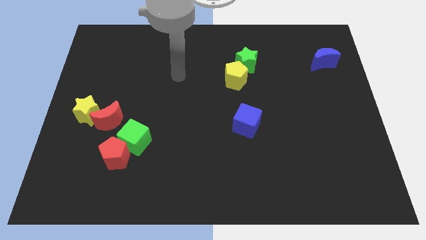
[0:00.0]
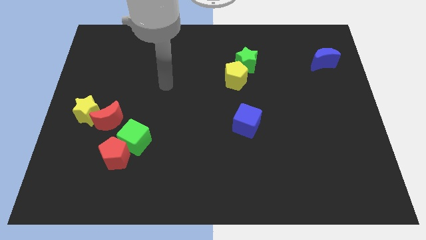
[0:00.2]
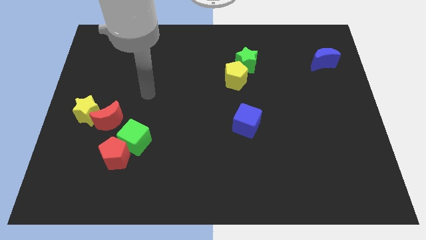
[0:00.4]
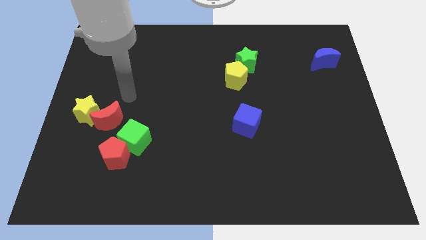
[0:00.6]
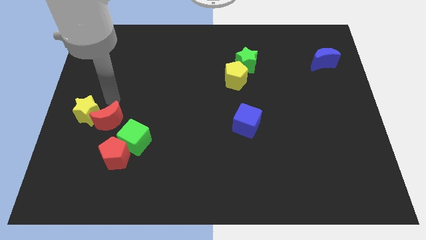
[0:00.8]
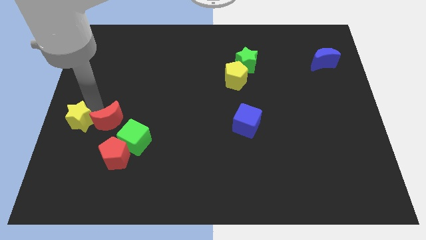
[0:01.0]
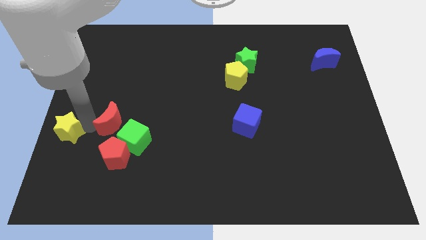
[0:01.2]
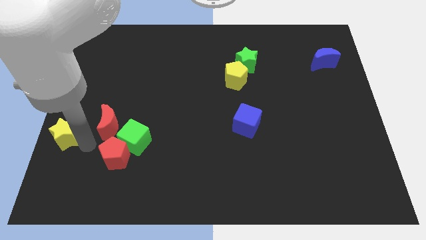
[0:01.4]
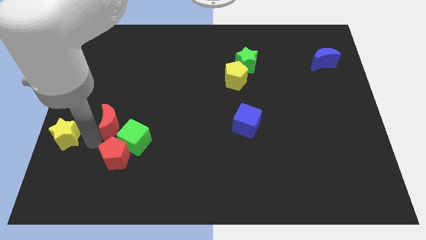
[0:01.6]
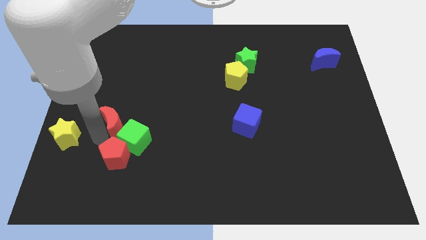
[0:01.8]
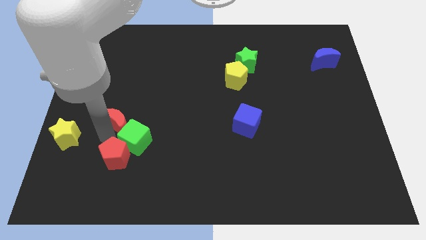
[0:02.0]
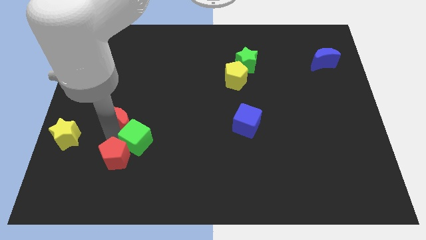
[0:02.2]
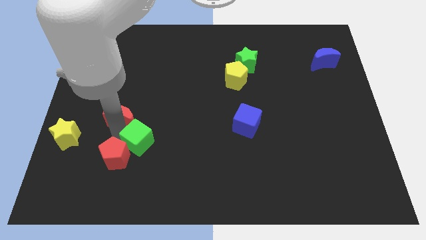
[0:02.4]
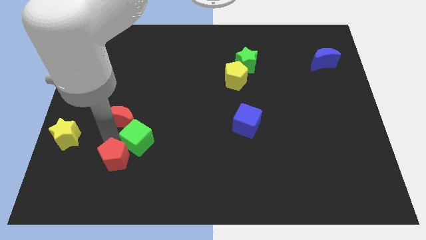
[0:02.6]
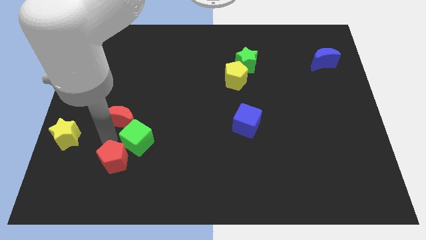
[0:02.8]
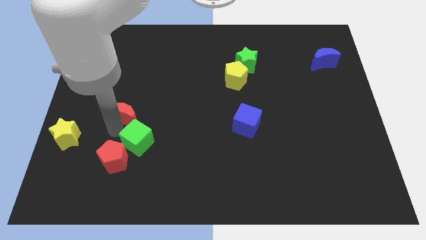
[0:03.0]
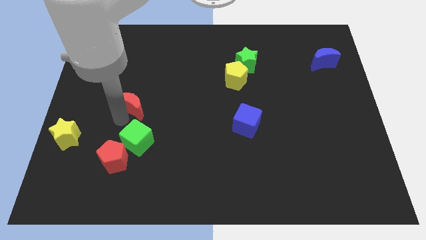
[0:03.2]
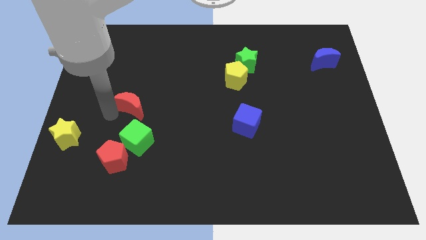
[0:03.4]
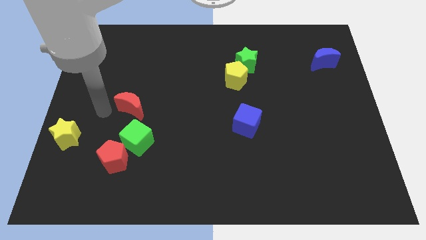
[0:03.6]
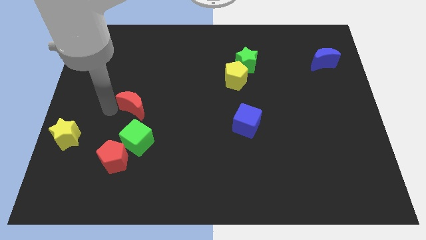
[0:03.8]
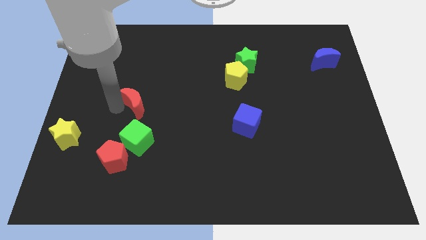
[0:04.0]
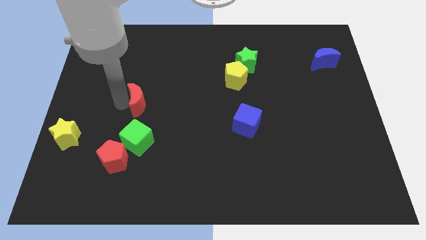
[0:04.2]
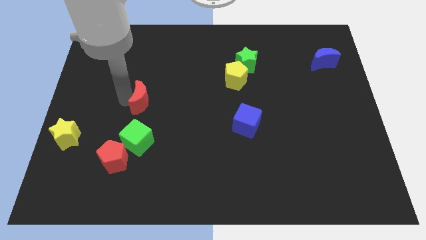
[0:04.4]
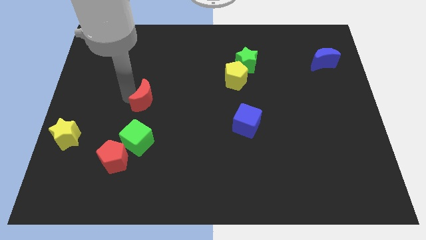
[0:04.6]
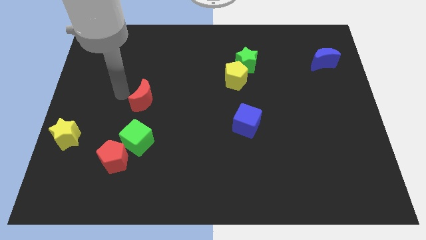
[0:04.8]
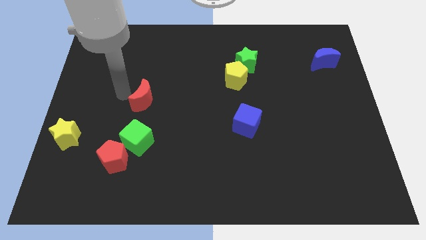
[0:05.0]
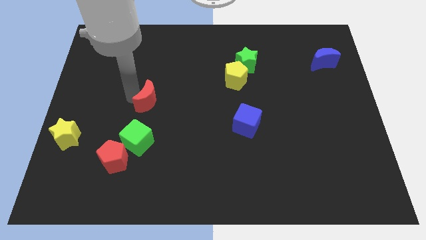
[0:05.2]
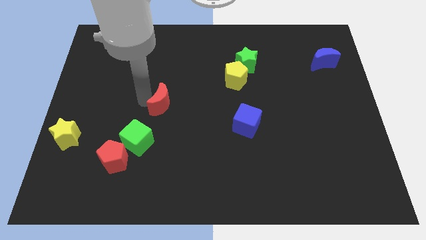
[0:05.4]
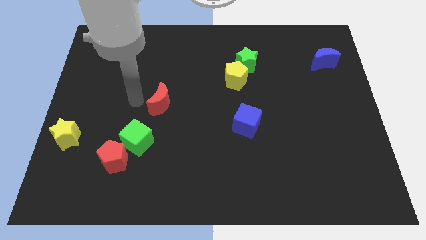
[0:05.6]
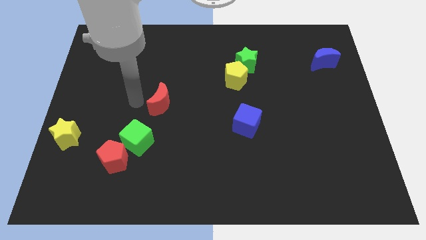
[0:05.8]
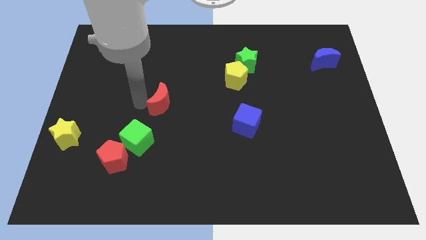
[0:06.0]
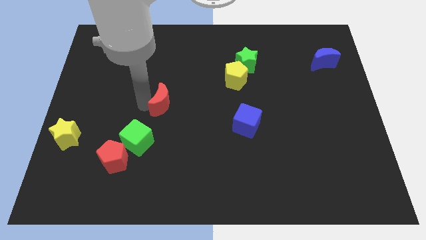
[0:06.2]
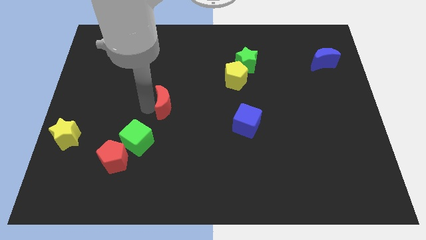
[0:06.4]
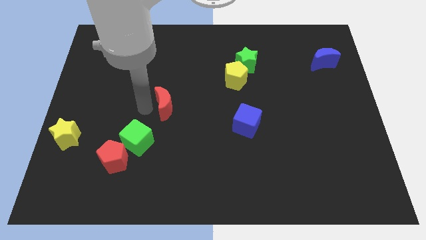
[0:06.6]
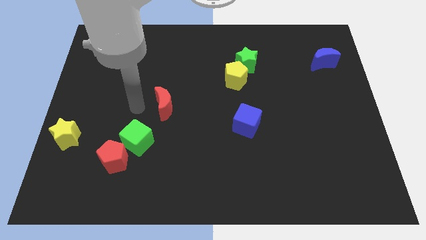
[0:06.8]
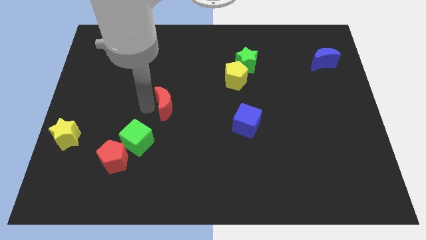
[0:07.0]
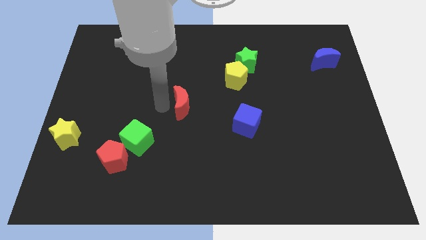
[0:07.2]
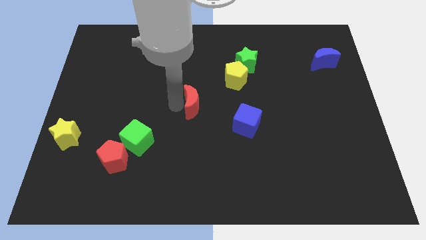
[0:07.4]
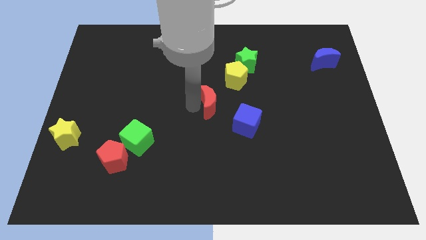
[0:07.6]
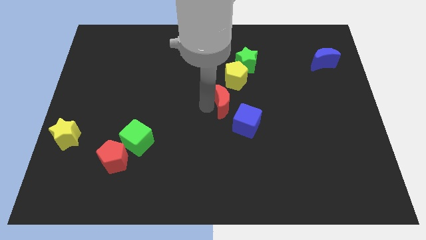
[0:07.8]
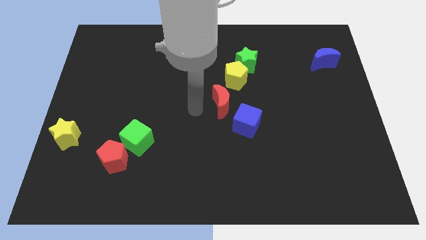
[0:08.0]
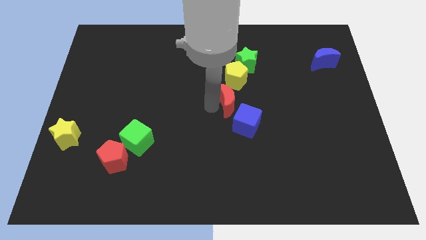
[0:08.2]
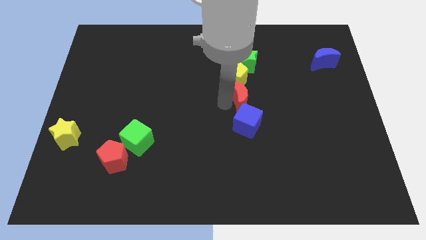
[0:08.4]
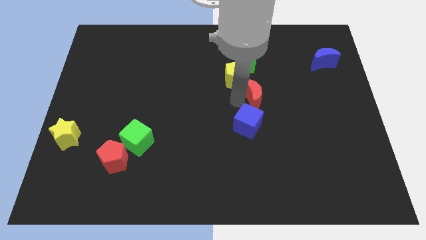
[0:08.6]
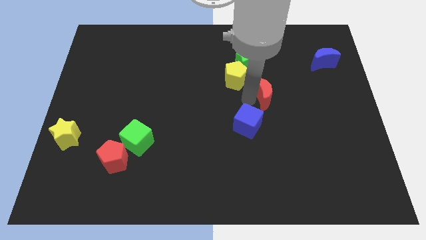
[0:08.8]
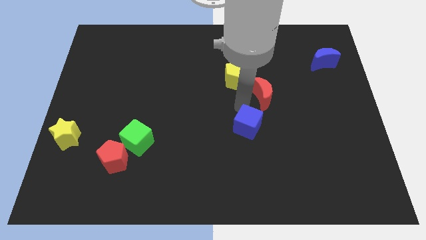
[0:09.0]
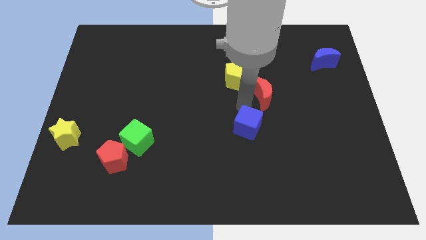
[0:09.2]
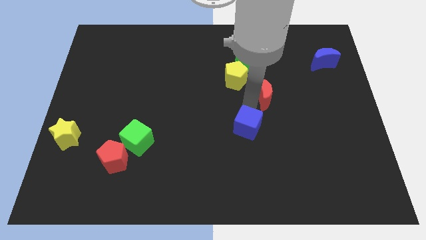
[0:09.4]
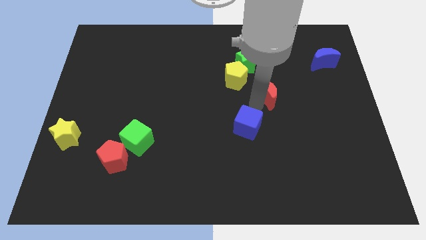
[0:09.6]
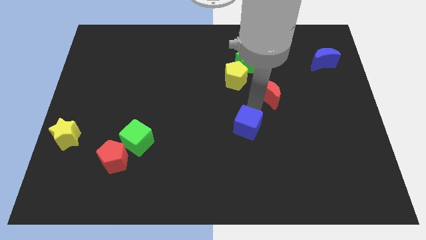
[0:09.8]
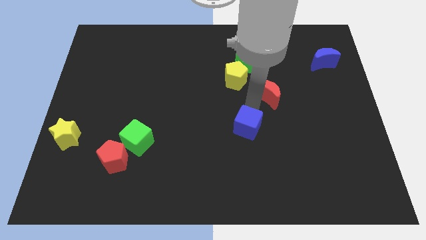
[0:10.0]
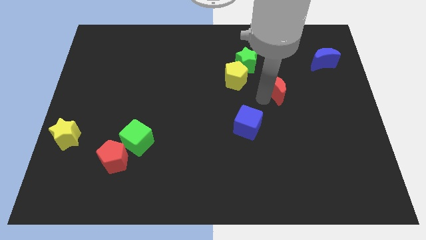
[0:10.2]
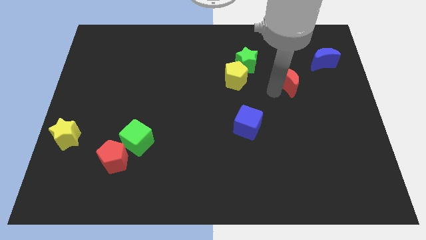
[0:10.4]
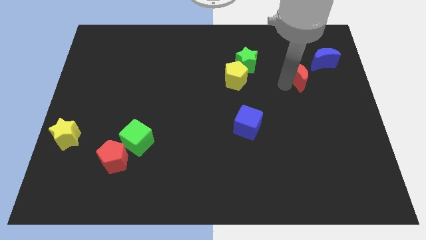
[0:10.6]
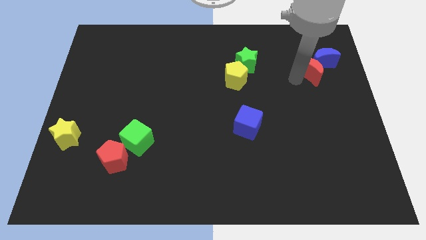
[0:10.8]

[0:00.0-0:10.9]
put the red moon to the blue moon

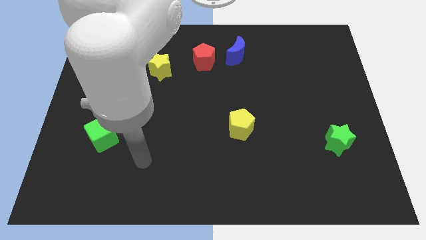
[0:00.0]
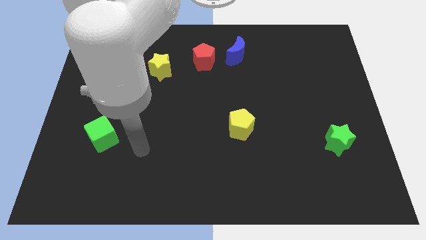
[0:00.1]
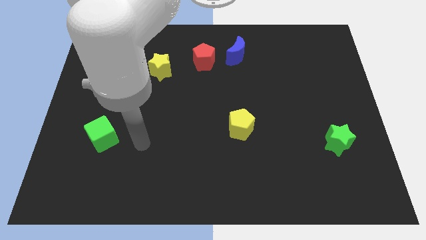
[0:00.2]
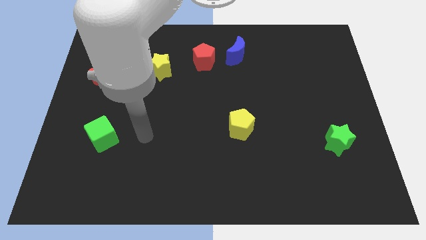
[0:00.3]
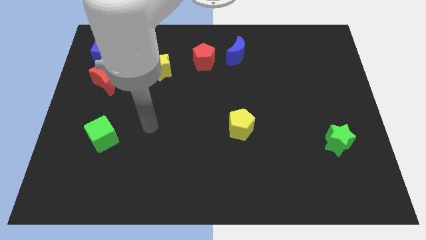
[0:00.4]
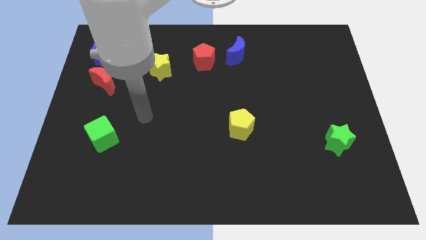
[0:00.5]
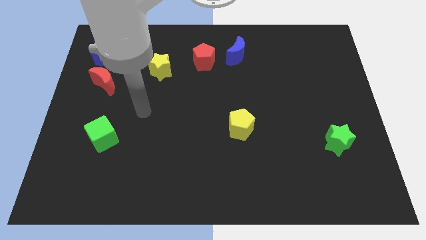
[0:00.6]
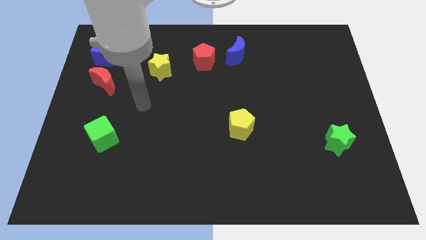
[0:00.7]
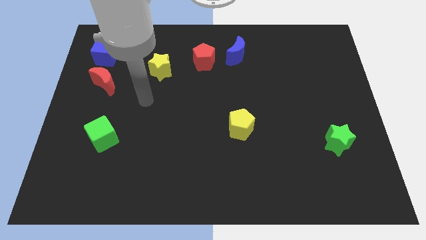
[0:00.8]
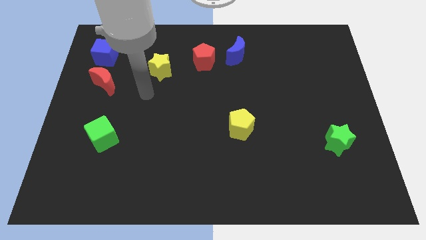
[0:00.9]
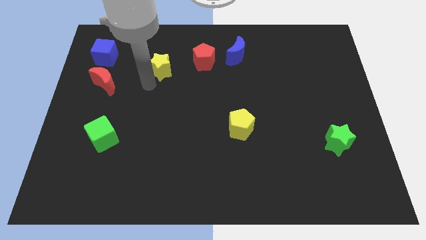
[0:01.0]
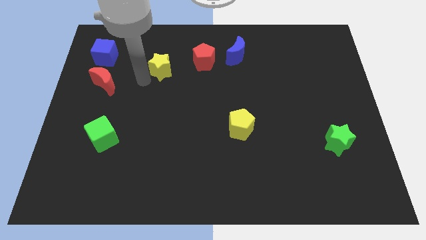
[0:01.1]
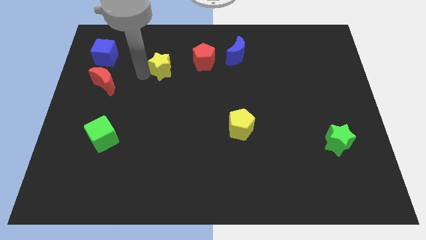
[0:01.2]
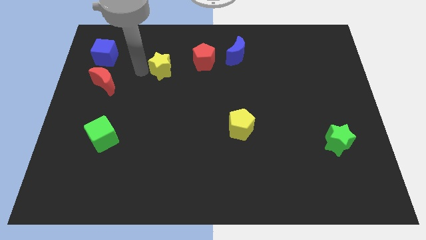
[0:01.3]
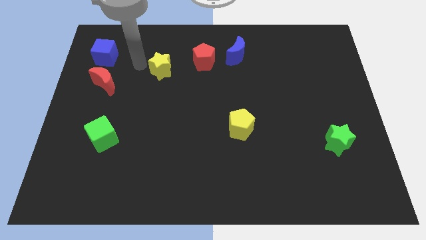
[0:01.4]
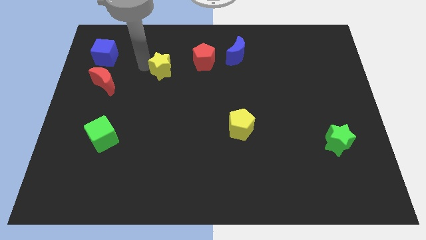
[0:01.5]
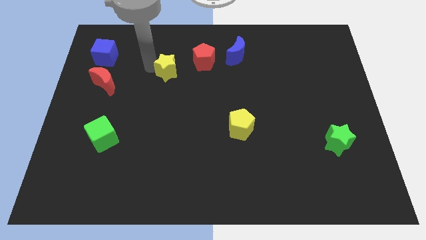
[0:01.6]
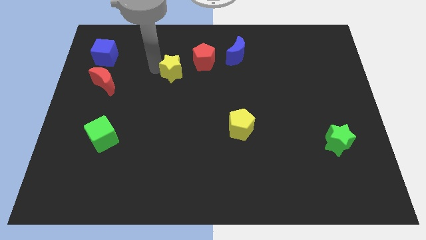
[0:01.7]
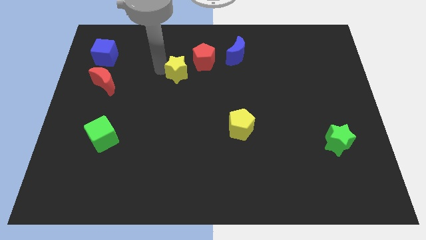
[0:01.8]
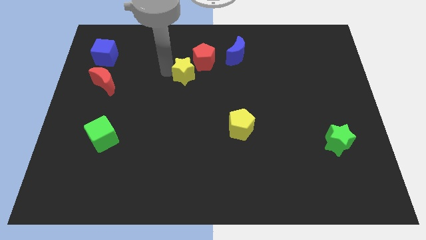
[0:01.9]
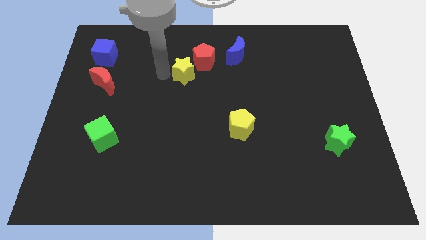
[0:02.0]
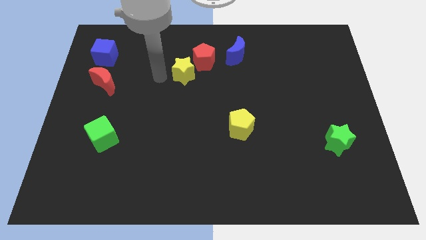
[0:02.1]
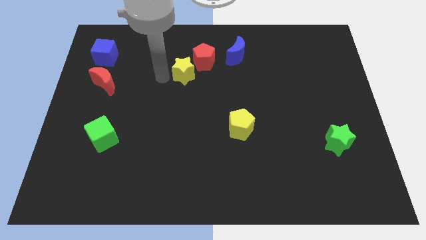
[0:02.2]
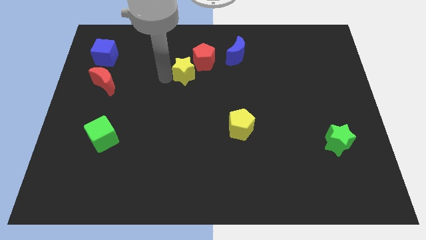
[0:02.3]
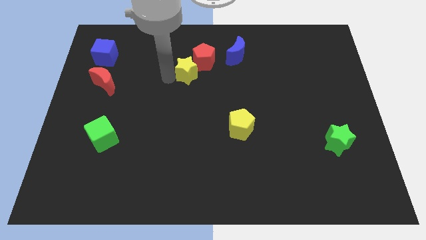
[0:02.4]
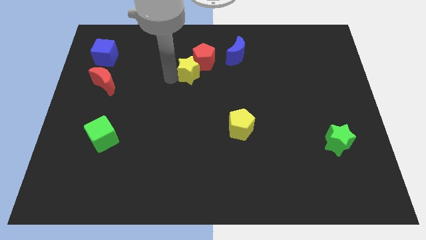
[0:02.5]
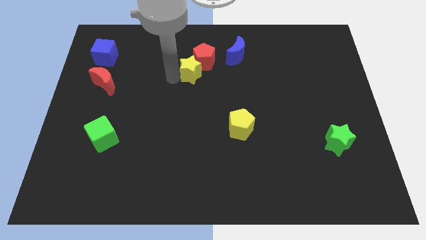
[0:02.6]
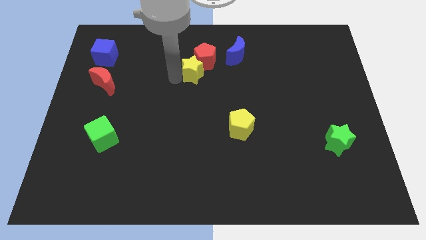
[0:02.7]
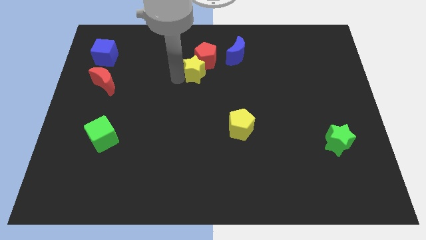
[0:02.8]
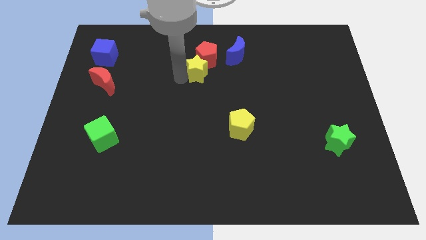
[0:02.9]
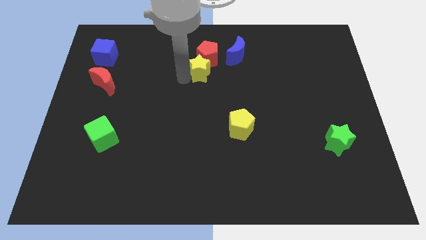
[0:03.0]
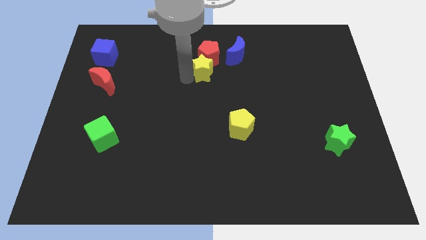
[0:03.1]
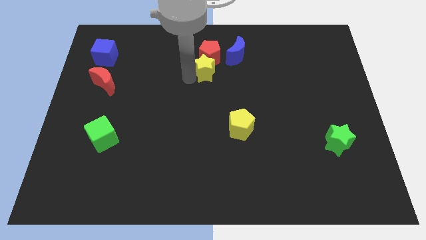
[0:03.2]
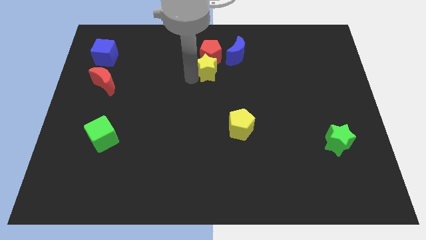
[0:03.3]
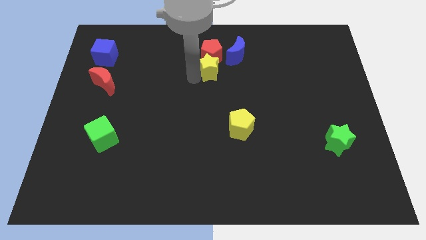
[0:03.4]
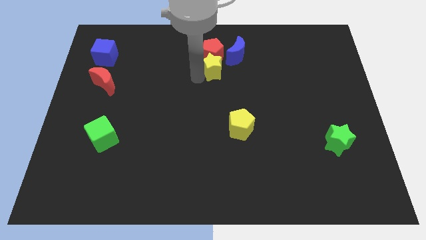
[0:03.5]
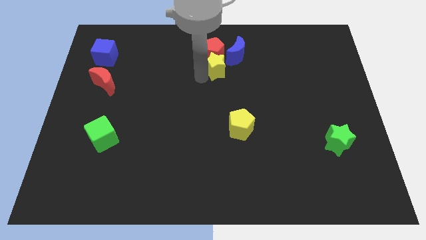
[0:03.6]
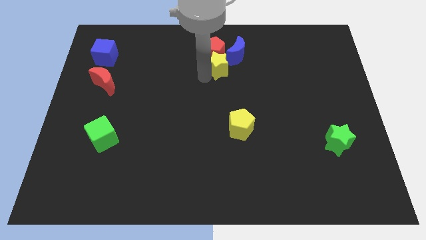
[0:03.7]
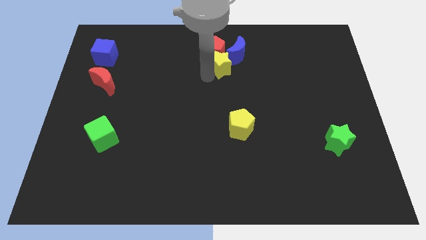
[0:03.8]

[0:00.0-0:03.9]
put the yellow star next to the blue moon
